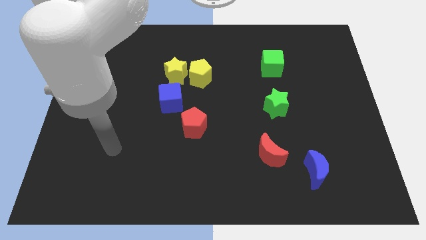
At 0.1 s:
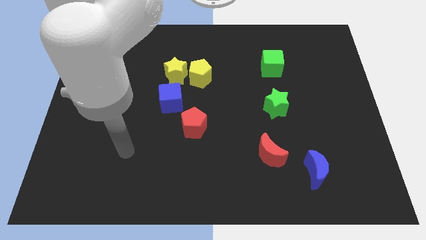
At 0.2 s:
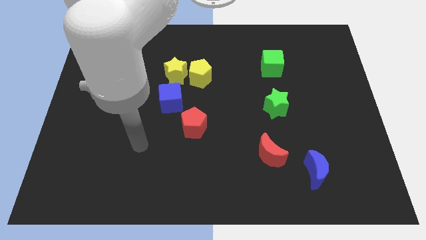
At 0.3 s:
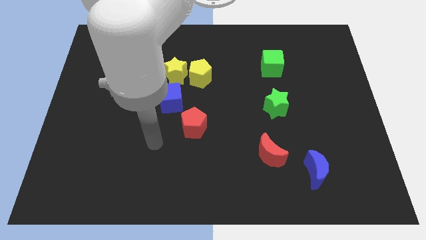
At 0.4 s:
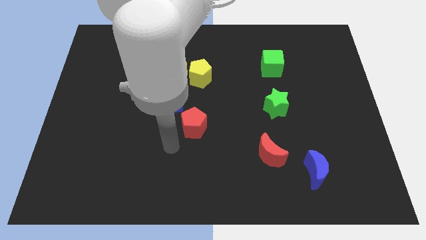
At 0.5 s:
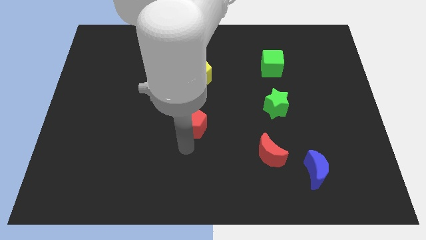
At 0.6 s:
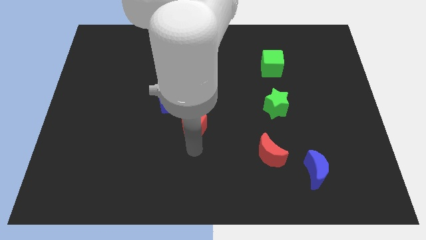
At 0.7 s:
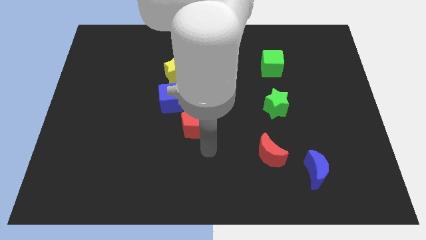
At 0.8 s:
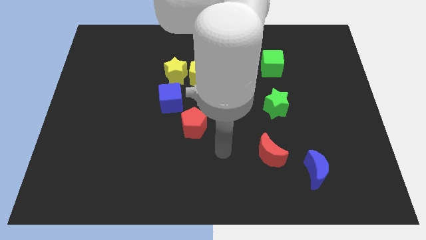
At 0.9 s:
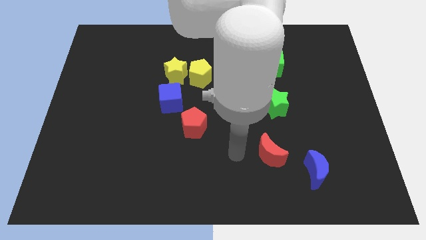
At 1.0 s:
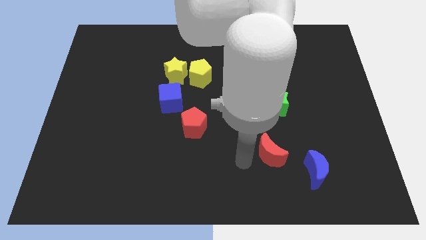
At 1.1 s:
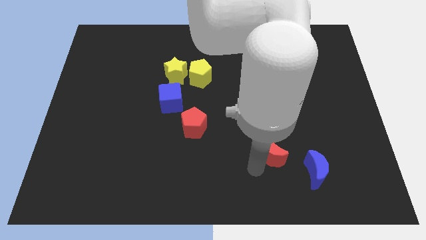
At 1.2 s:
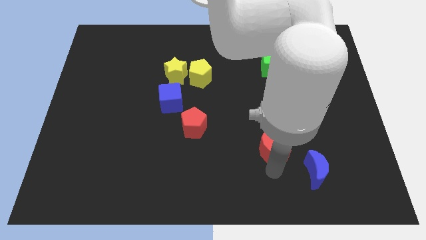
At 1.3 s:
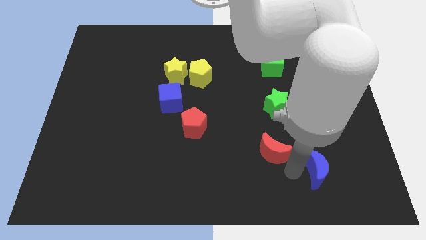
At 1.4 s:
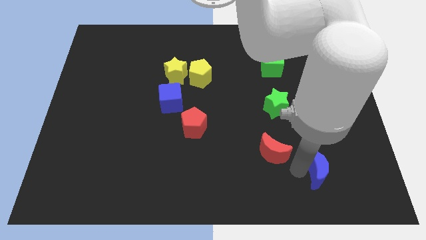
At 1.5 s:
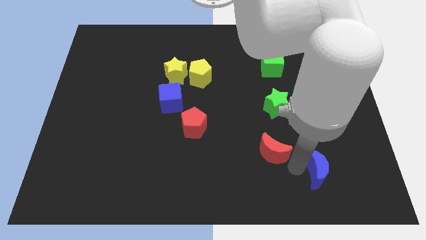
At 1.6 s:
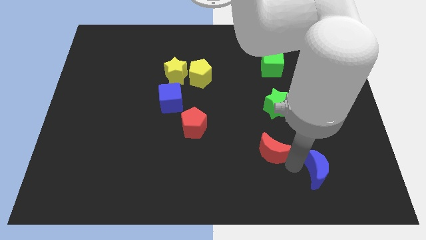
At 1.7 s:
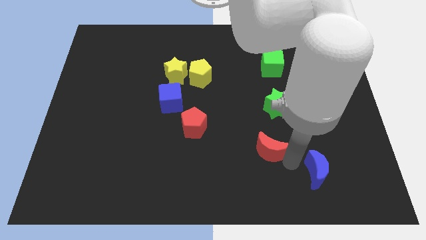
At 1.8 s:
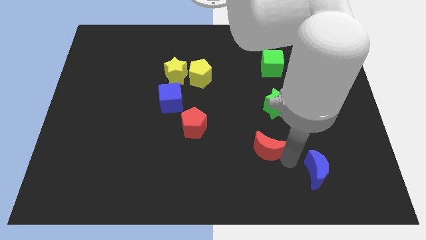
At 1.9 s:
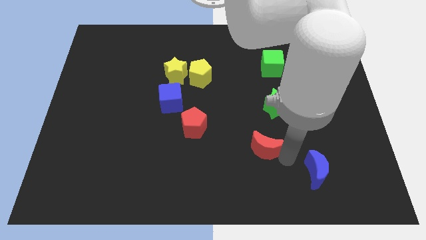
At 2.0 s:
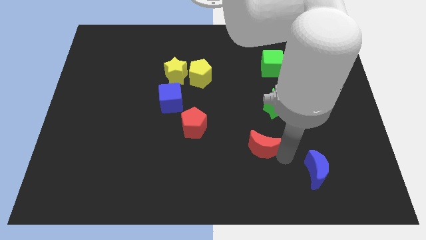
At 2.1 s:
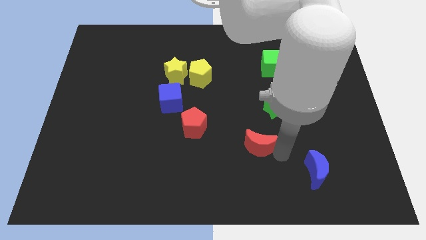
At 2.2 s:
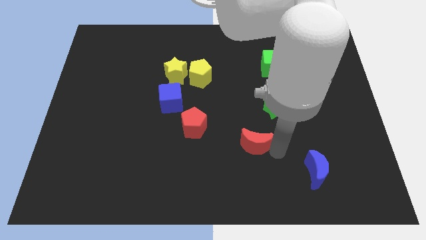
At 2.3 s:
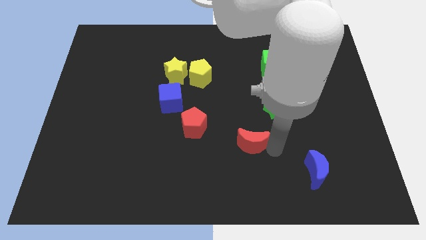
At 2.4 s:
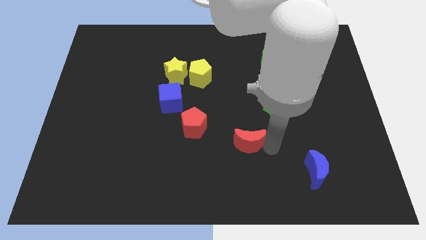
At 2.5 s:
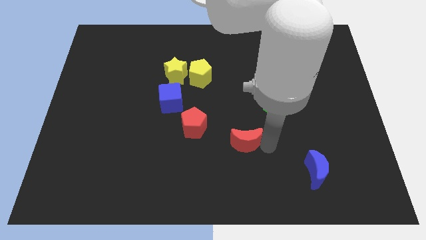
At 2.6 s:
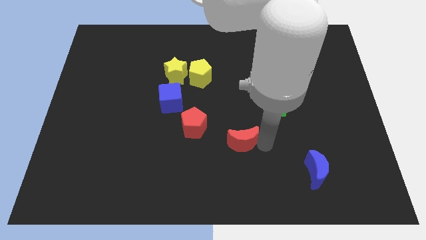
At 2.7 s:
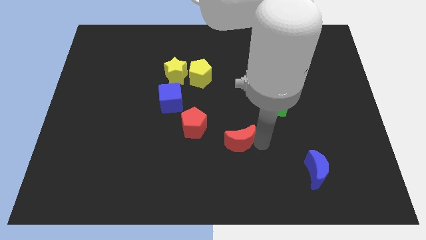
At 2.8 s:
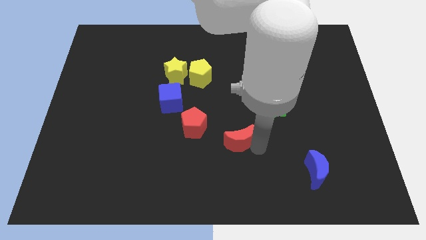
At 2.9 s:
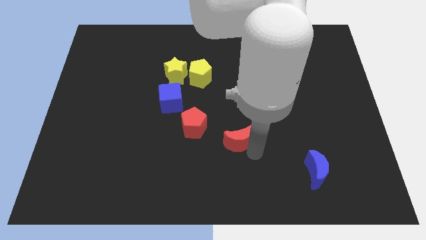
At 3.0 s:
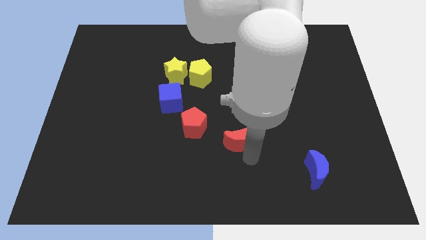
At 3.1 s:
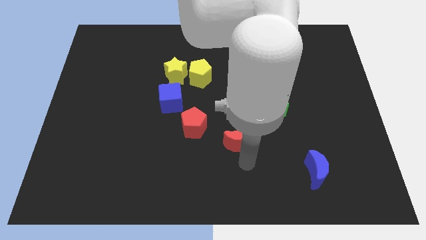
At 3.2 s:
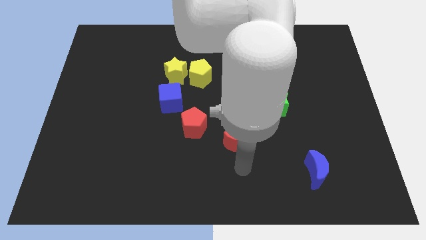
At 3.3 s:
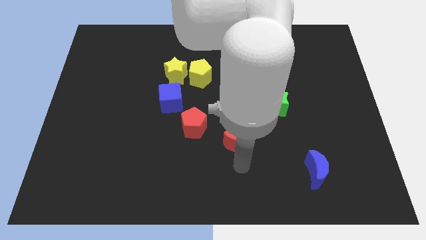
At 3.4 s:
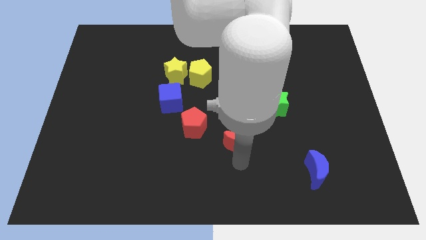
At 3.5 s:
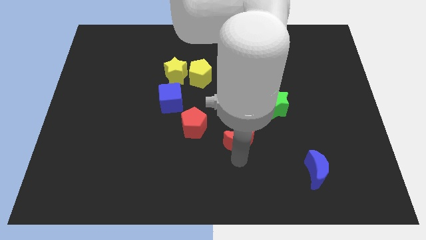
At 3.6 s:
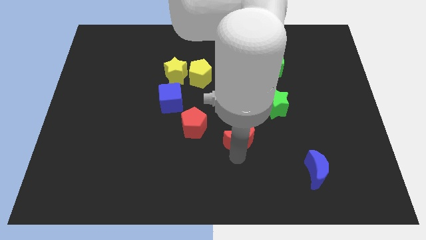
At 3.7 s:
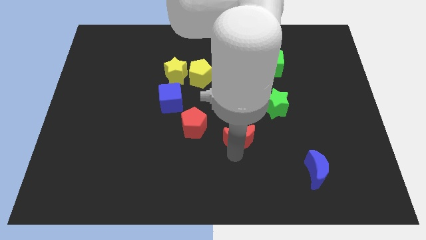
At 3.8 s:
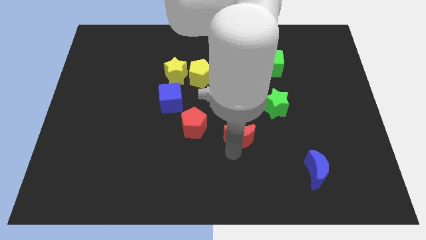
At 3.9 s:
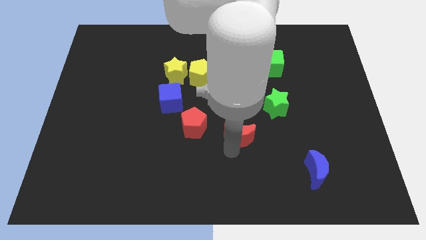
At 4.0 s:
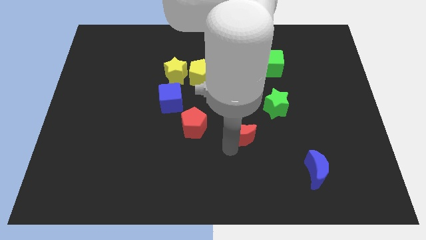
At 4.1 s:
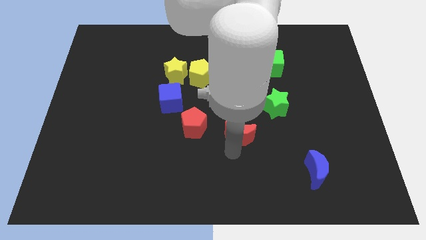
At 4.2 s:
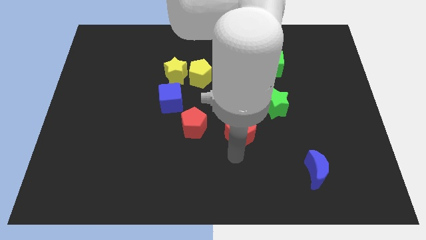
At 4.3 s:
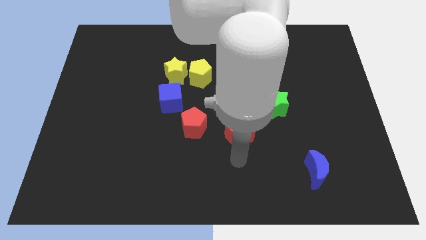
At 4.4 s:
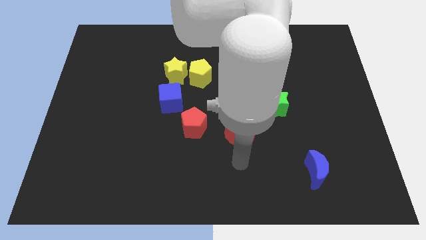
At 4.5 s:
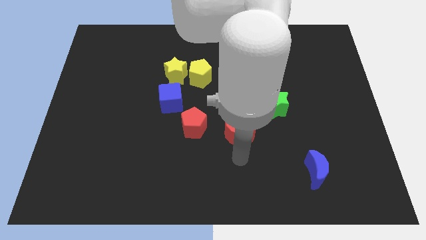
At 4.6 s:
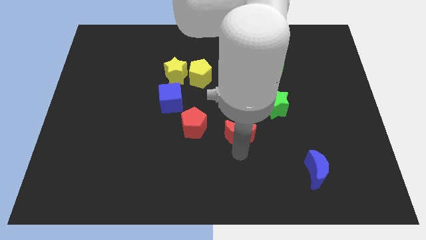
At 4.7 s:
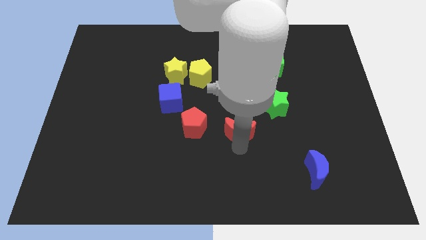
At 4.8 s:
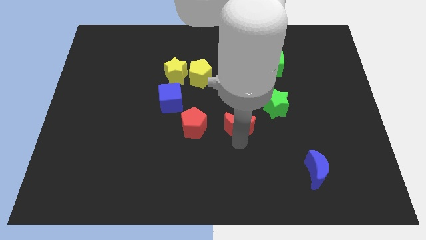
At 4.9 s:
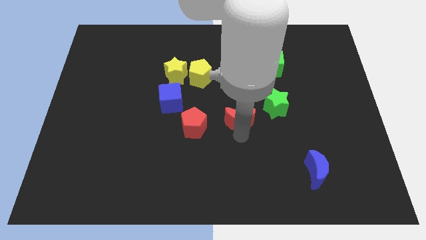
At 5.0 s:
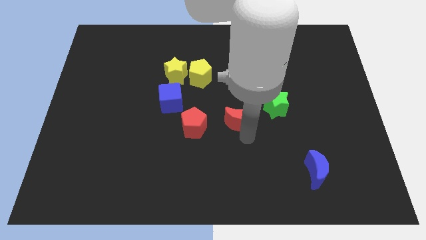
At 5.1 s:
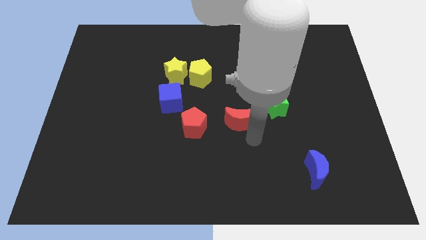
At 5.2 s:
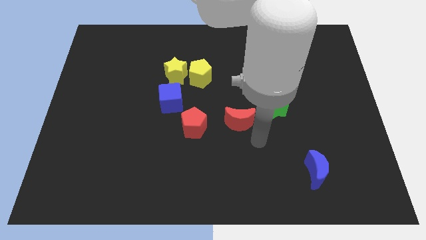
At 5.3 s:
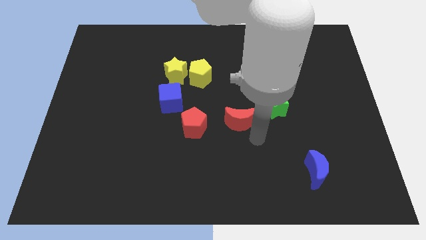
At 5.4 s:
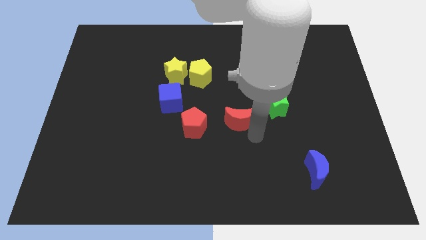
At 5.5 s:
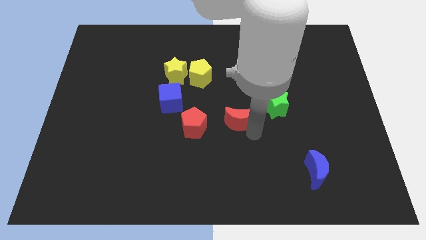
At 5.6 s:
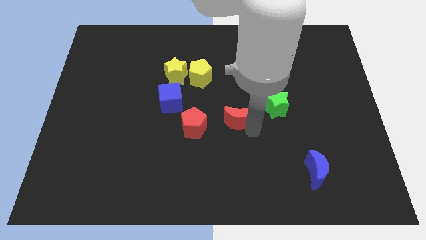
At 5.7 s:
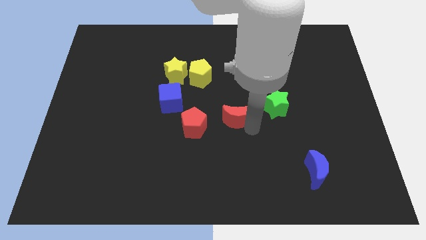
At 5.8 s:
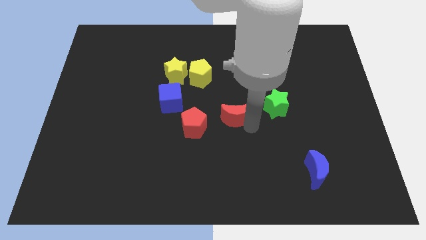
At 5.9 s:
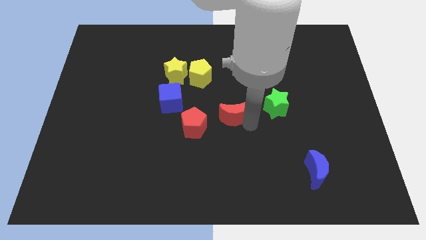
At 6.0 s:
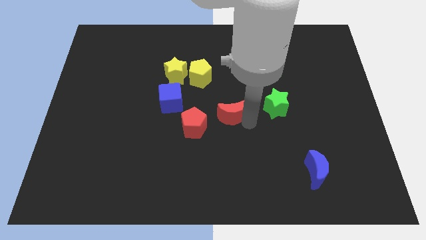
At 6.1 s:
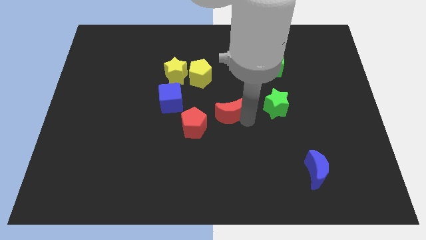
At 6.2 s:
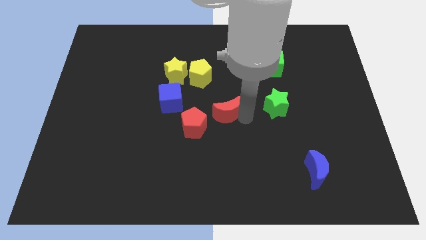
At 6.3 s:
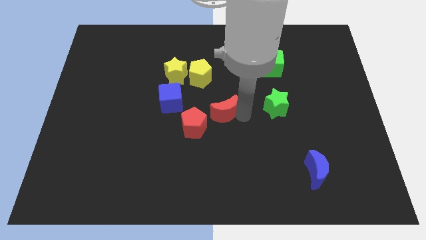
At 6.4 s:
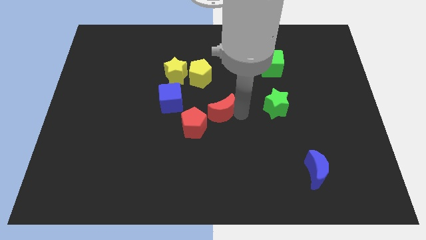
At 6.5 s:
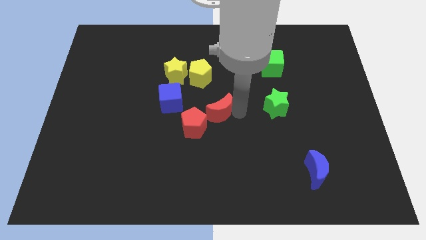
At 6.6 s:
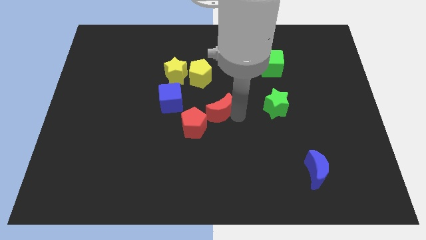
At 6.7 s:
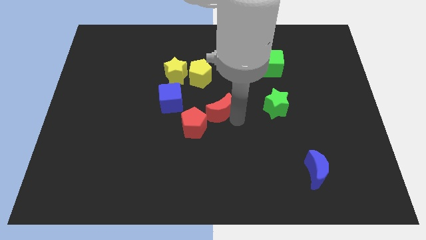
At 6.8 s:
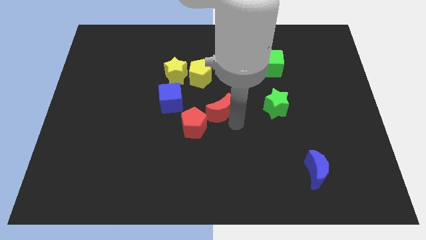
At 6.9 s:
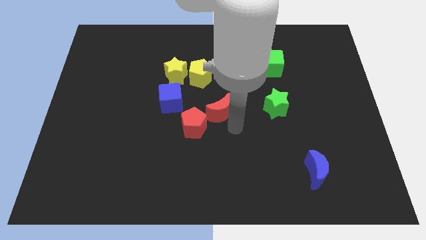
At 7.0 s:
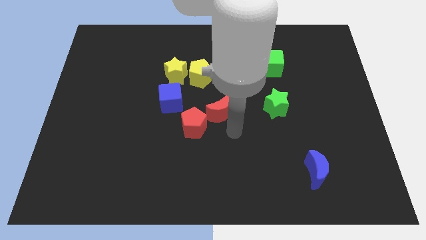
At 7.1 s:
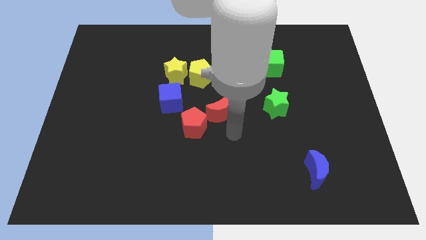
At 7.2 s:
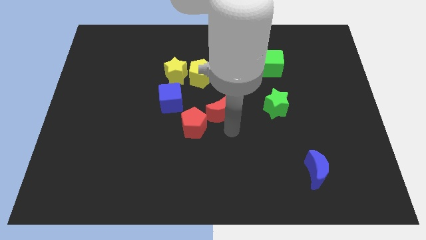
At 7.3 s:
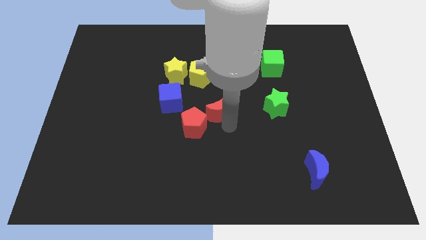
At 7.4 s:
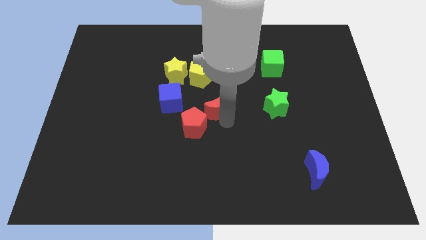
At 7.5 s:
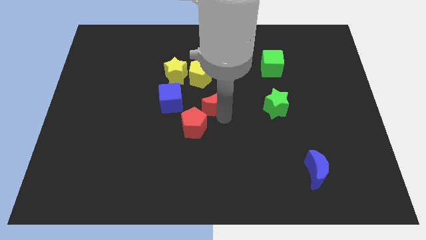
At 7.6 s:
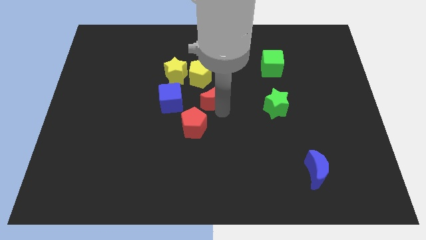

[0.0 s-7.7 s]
push the red moon to the top of the red pentagon

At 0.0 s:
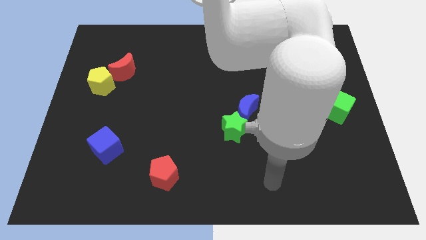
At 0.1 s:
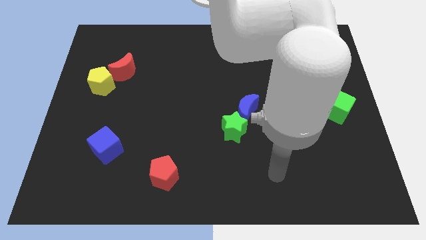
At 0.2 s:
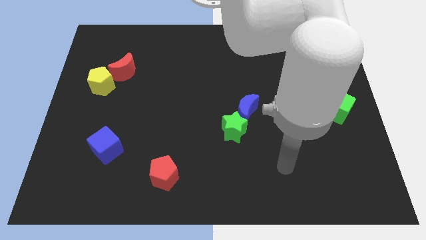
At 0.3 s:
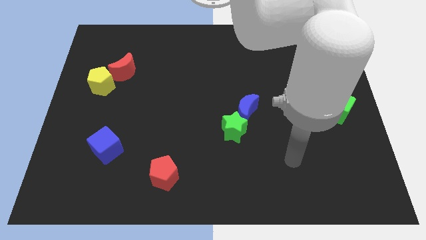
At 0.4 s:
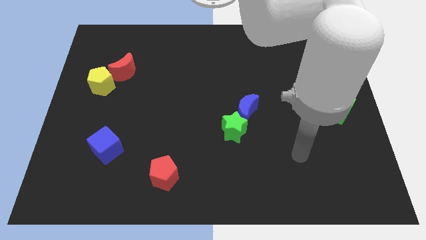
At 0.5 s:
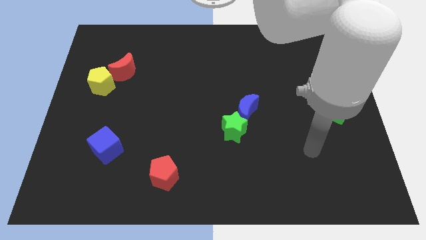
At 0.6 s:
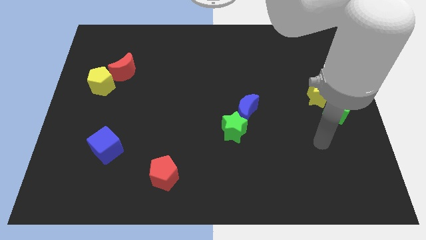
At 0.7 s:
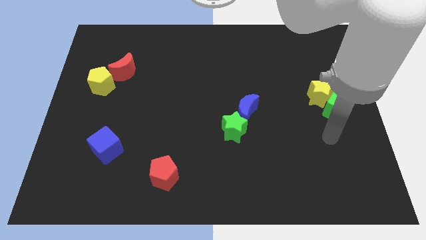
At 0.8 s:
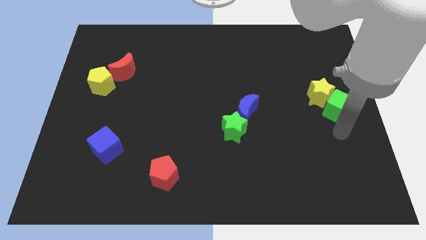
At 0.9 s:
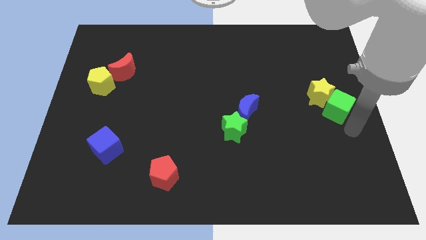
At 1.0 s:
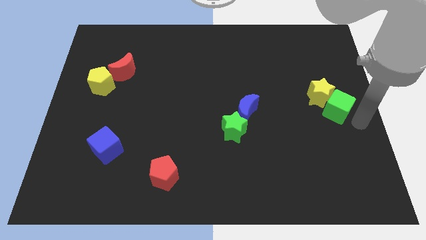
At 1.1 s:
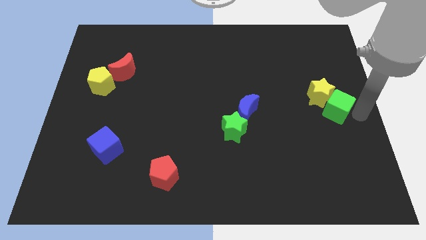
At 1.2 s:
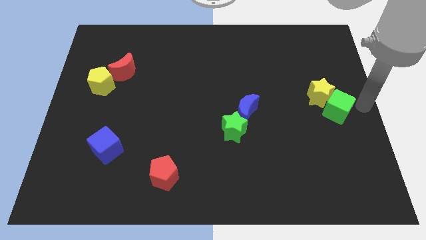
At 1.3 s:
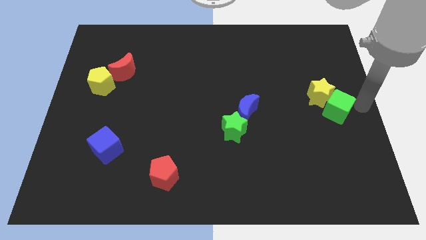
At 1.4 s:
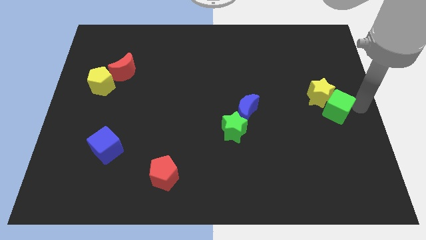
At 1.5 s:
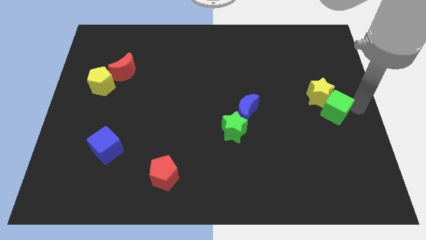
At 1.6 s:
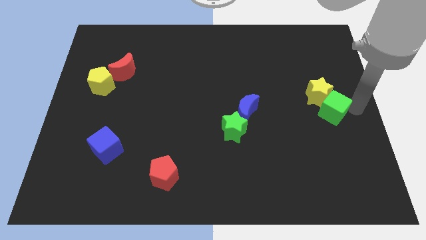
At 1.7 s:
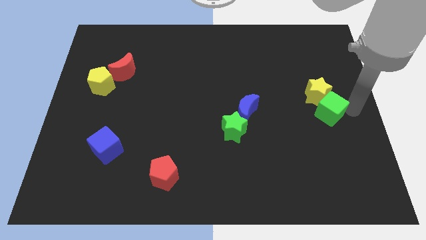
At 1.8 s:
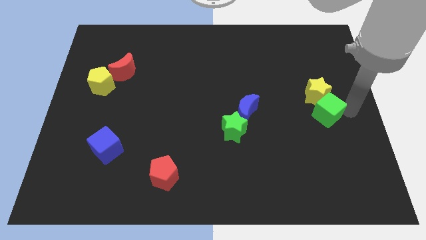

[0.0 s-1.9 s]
push the green cube to the bottom left side of the yellow star
